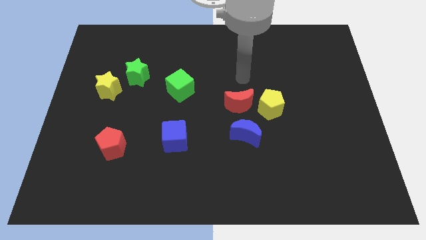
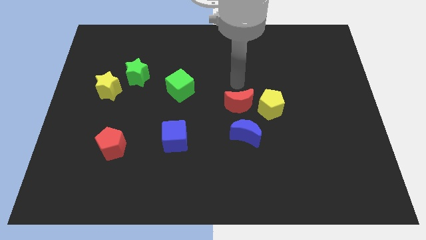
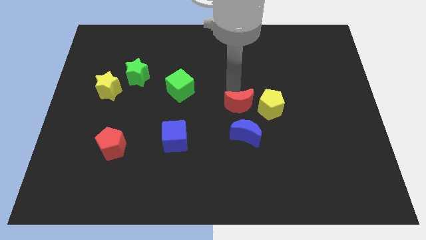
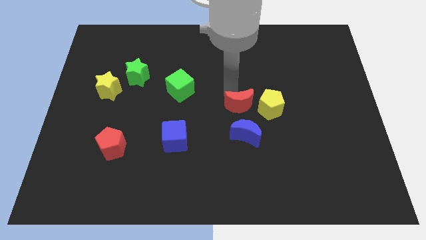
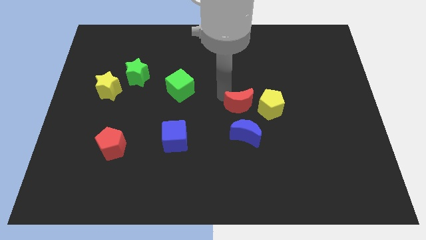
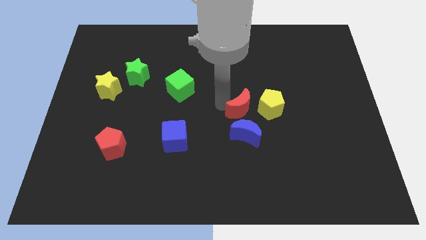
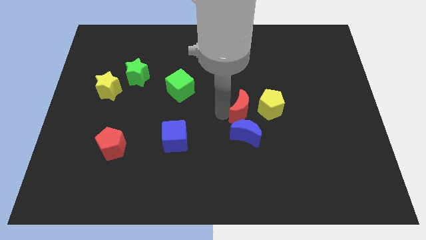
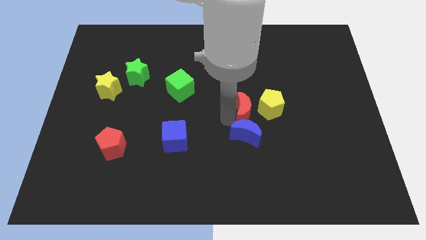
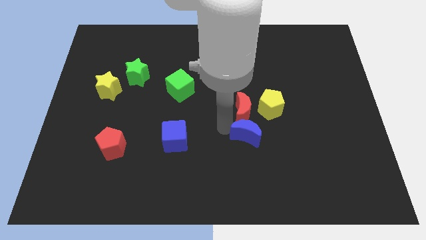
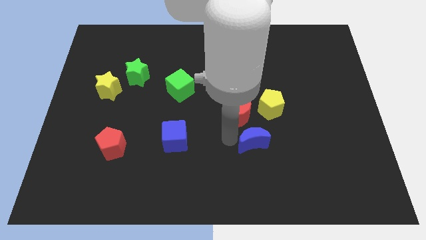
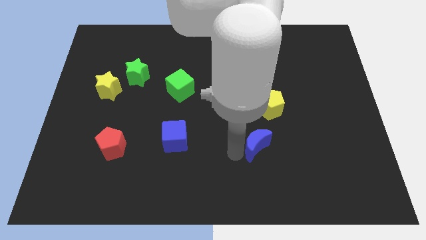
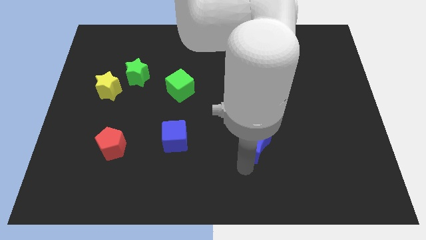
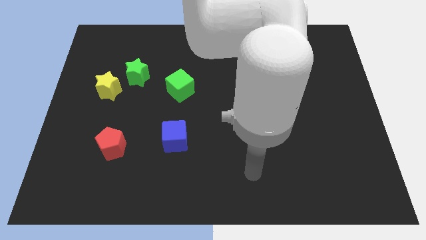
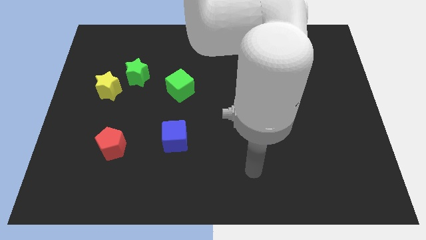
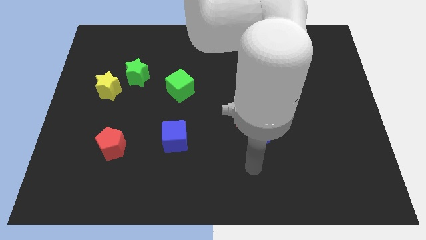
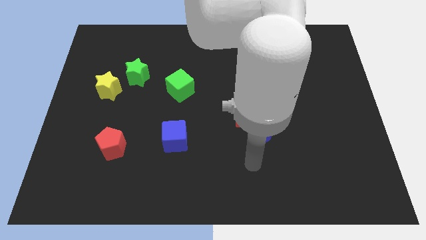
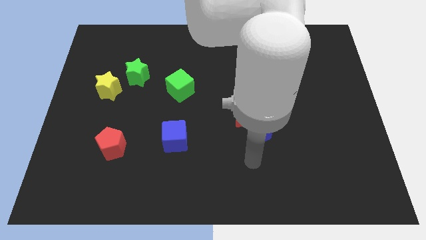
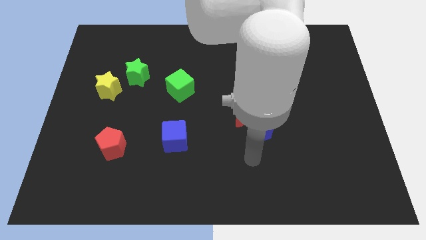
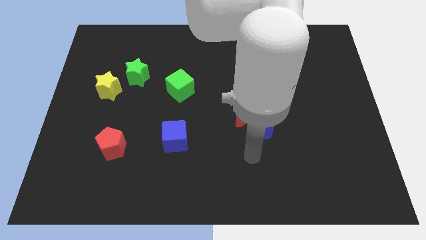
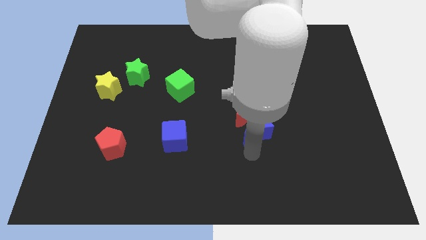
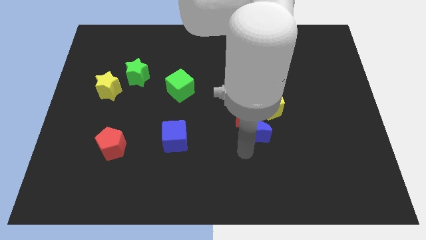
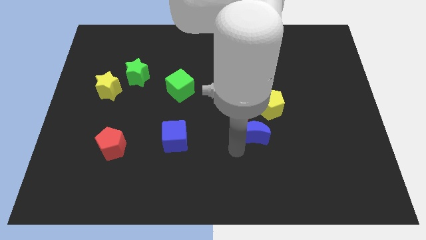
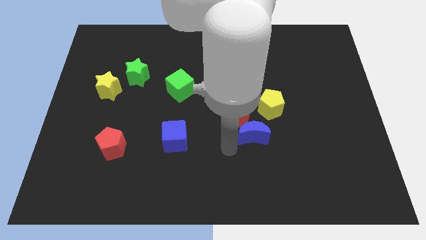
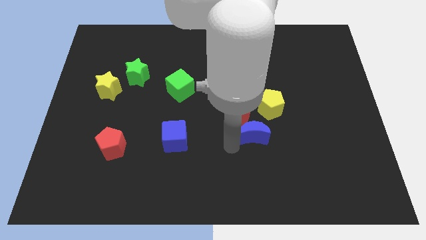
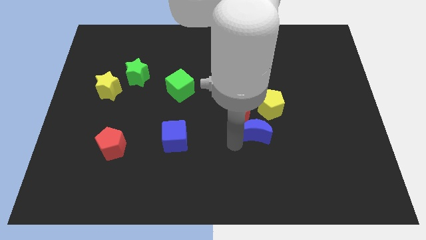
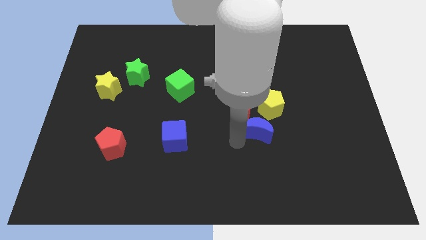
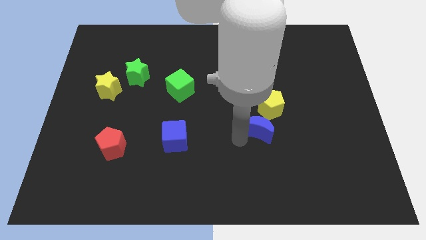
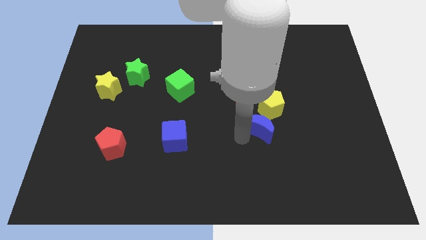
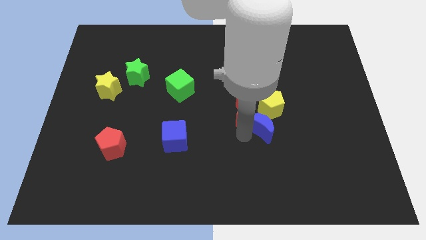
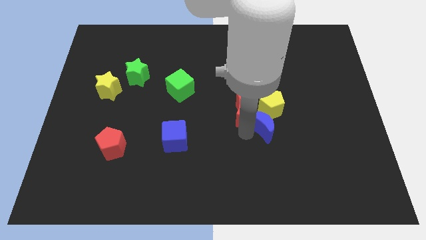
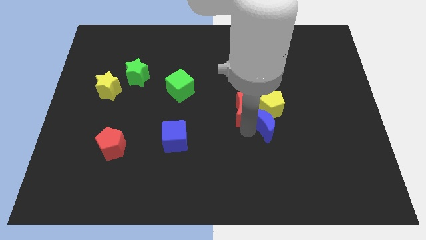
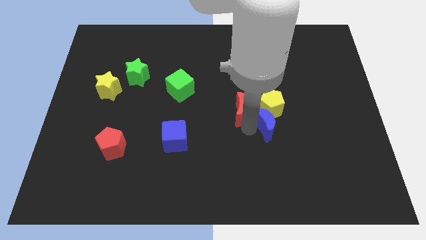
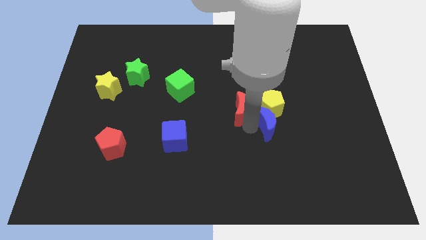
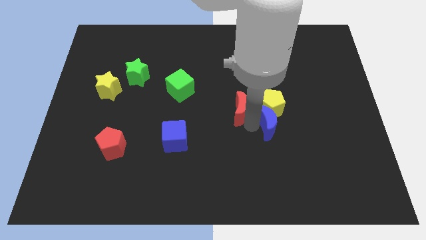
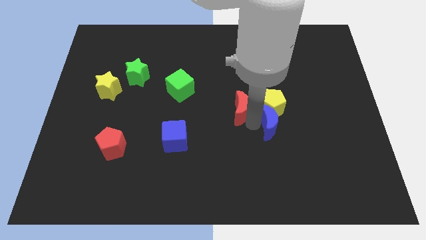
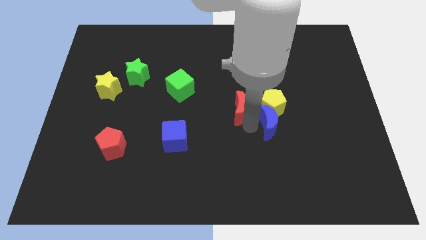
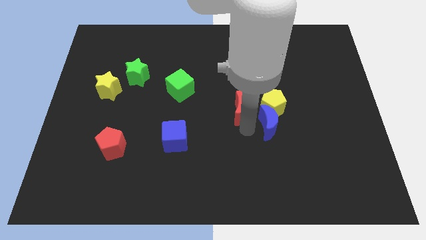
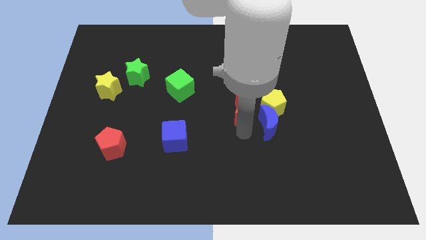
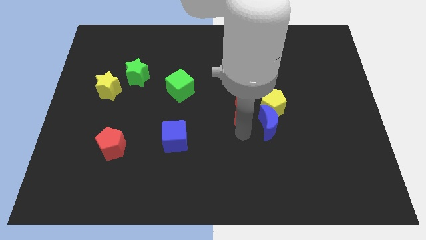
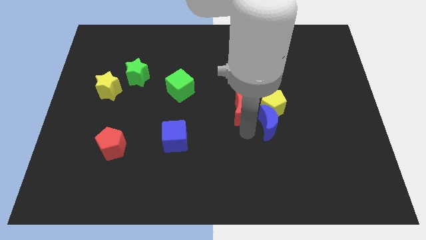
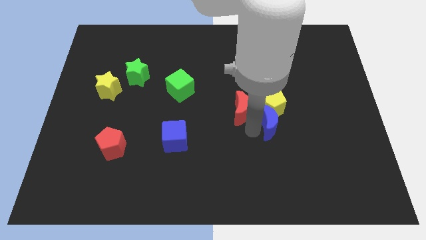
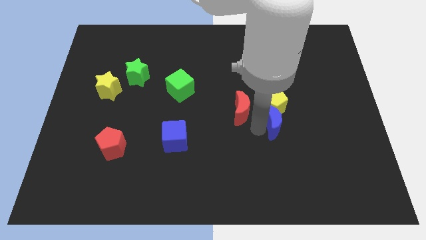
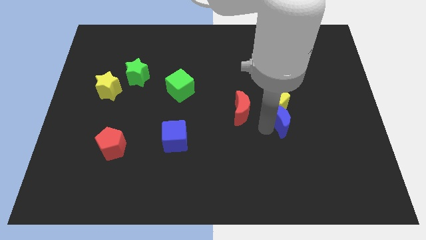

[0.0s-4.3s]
move the blue moon somewhat diagonally upwards and to the right

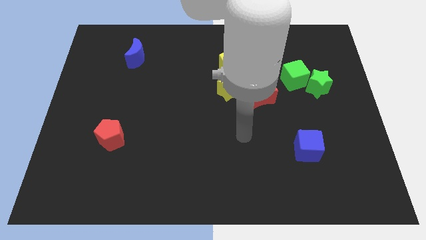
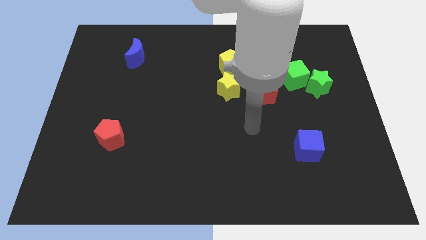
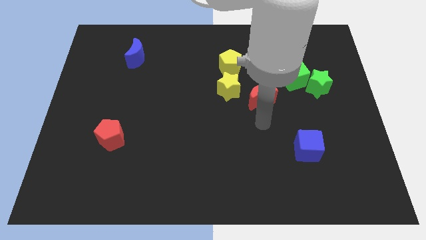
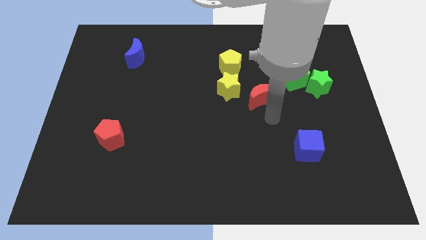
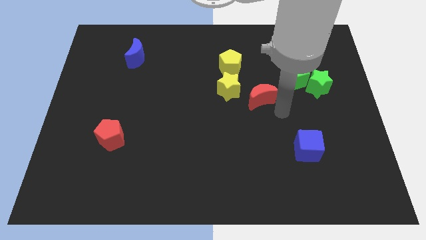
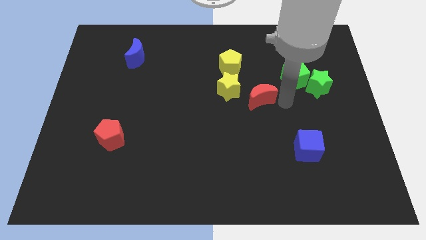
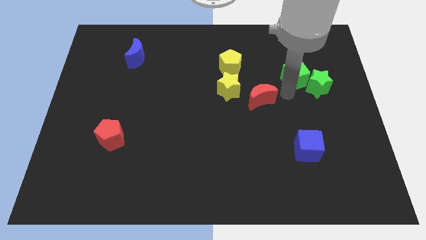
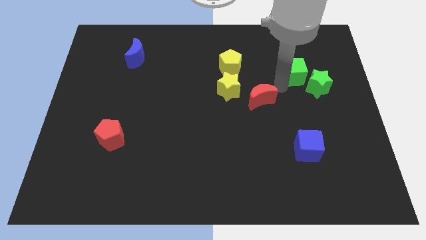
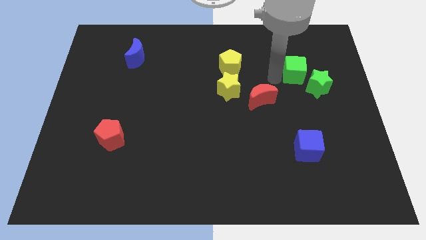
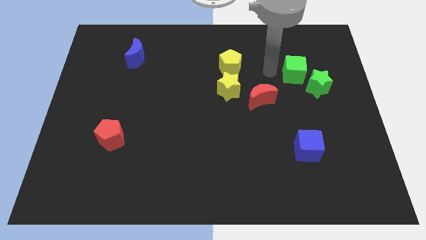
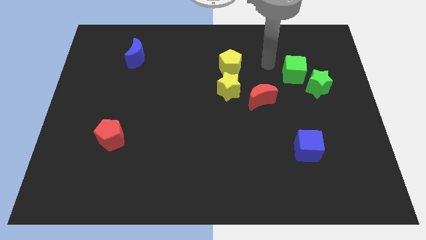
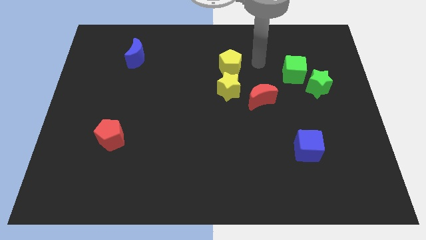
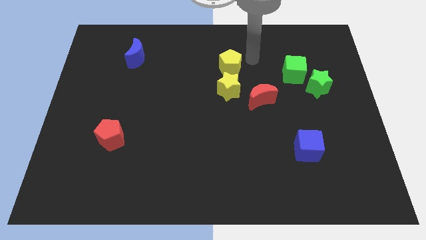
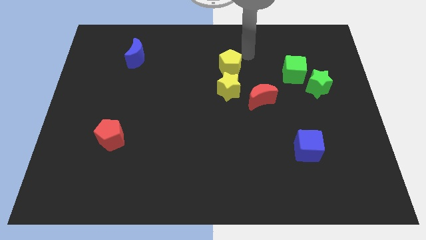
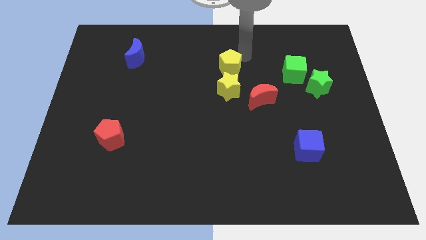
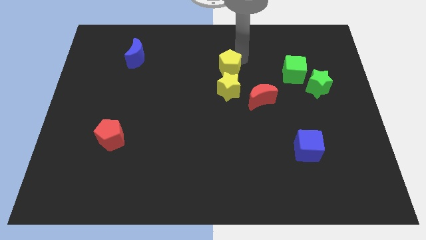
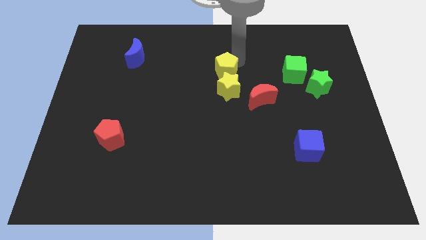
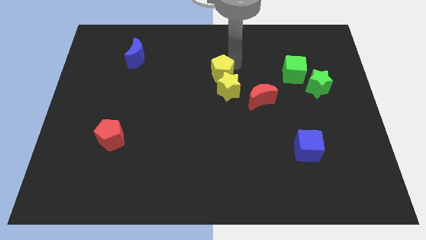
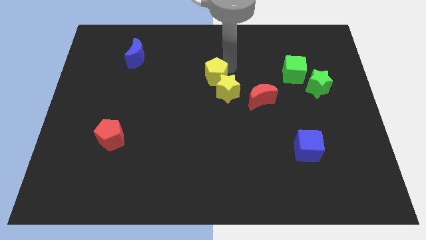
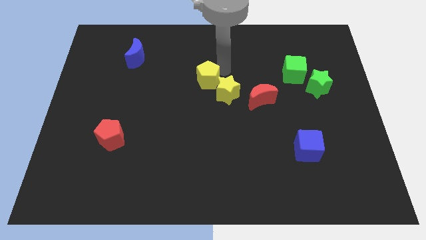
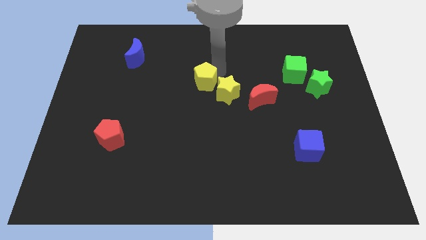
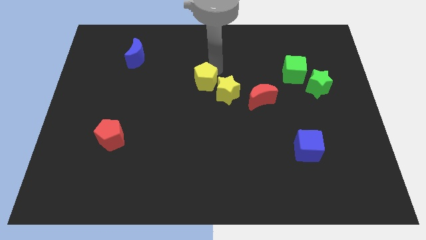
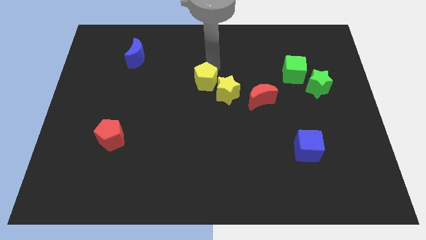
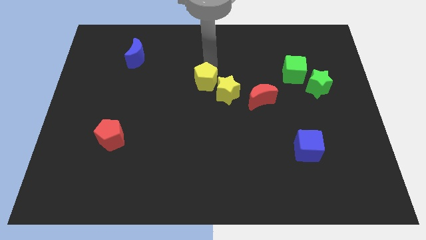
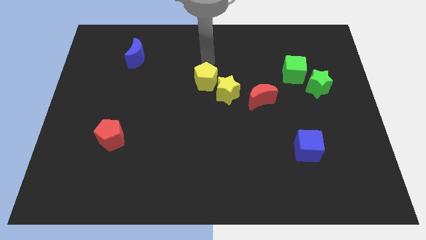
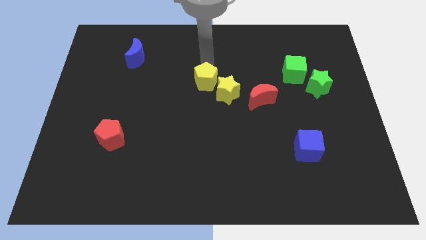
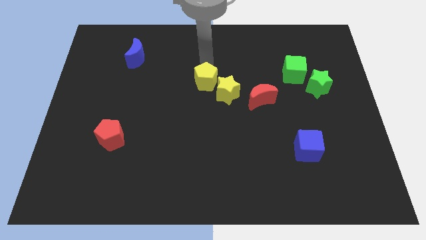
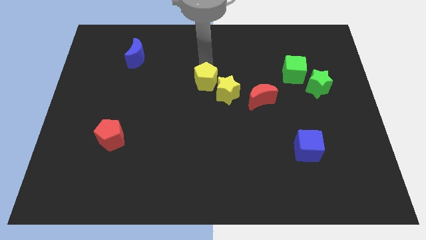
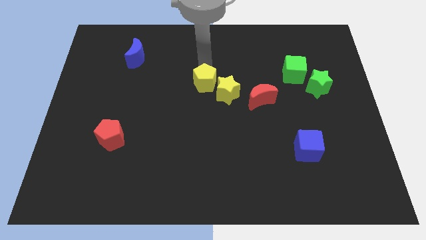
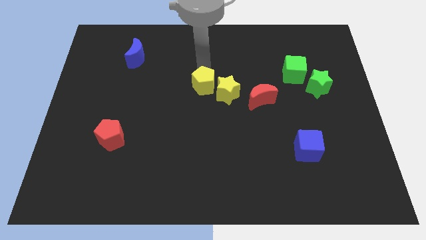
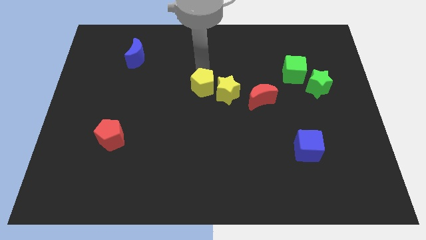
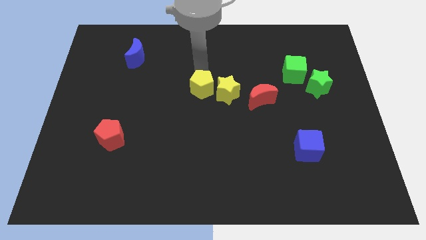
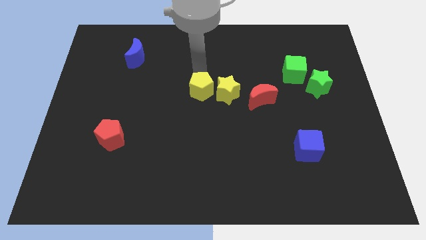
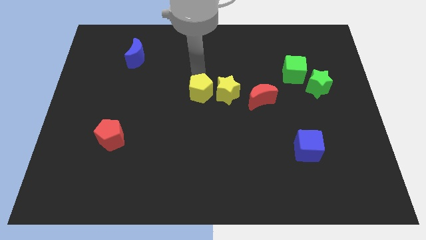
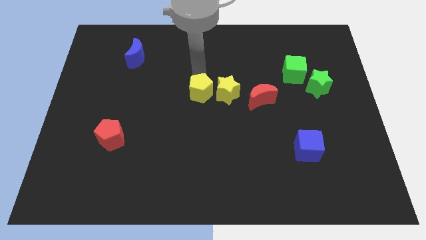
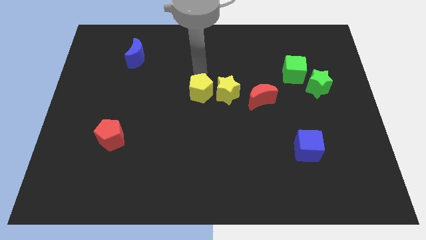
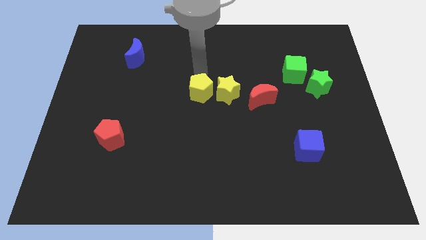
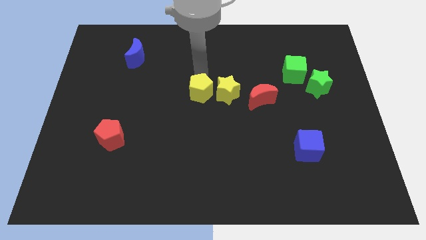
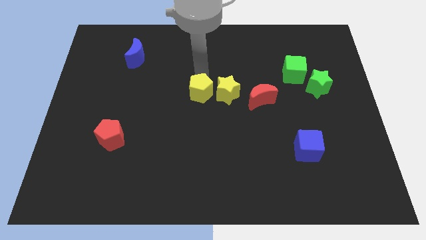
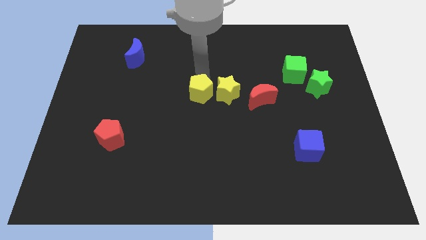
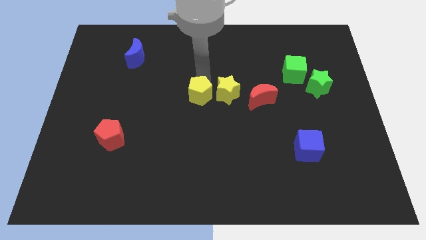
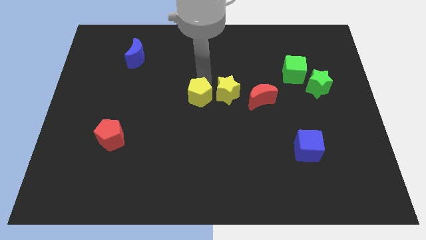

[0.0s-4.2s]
slightly slide the yellow pentagon down
